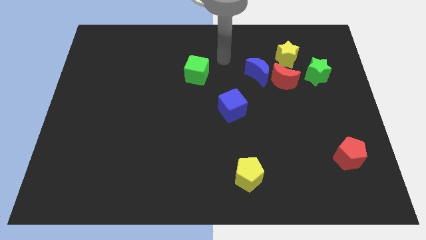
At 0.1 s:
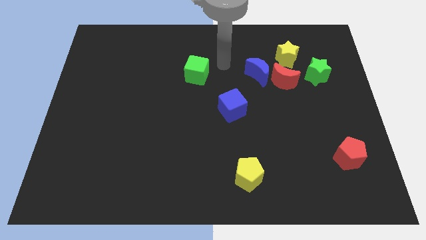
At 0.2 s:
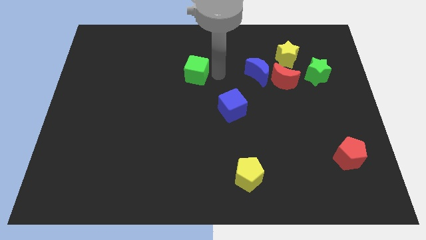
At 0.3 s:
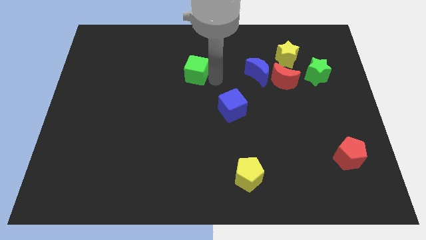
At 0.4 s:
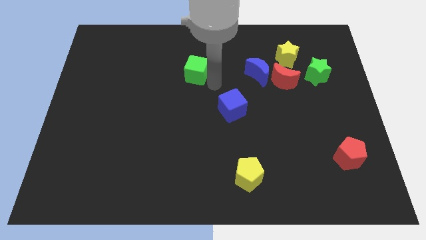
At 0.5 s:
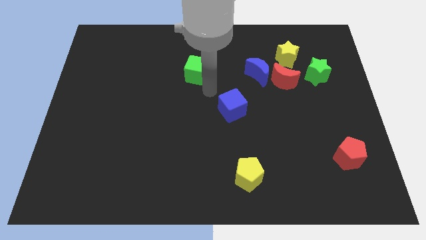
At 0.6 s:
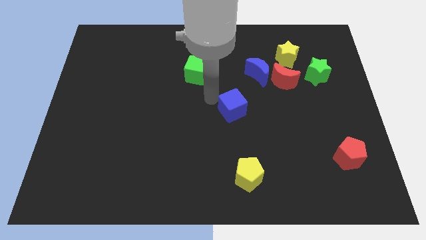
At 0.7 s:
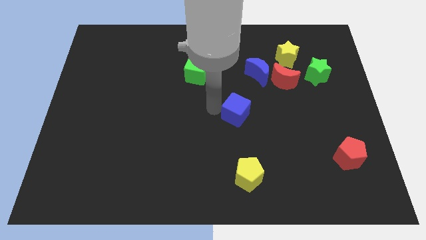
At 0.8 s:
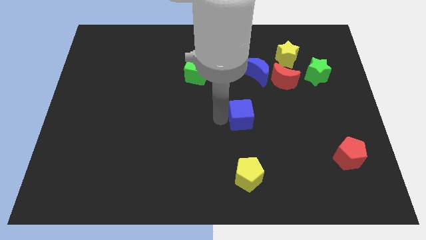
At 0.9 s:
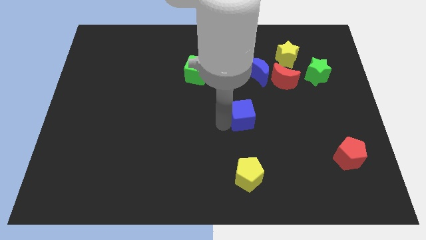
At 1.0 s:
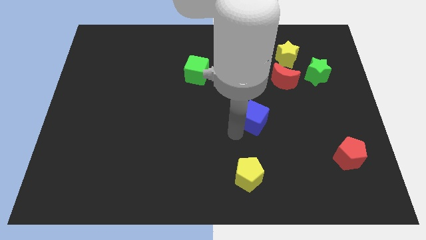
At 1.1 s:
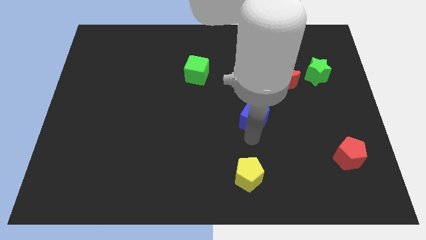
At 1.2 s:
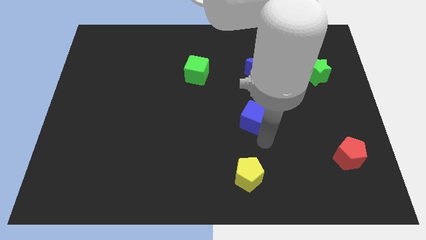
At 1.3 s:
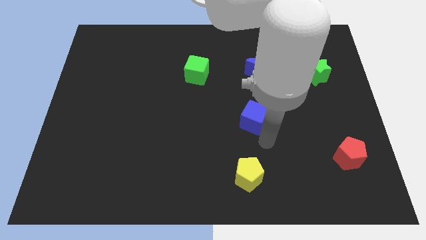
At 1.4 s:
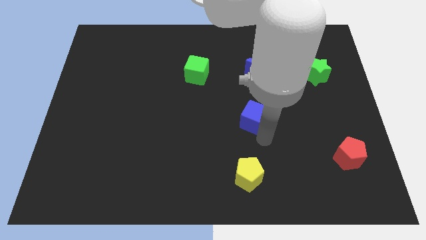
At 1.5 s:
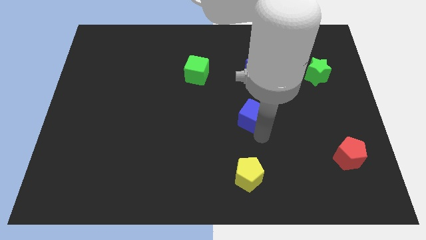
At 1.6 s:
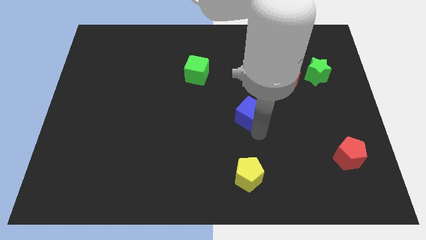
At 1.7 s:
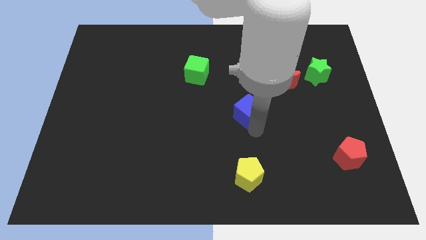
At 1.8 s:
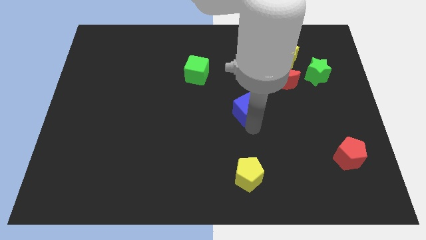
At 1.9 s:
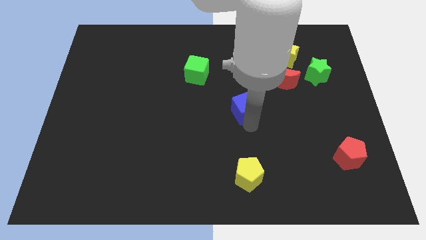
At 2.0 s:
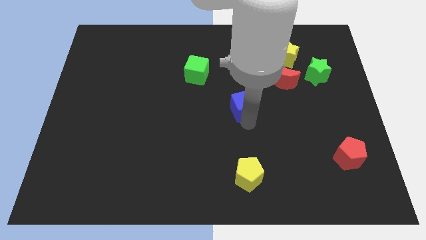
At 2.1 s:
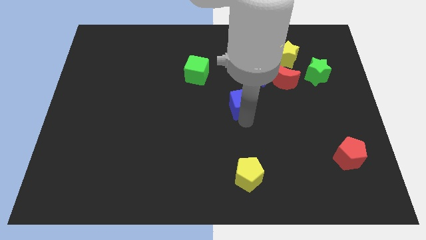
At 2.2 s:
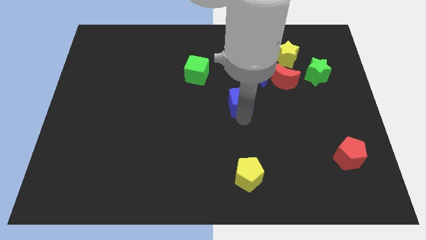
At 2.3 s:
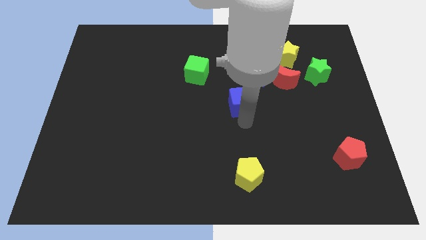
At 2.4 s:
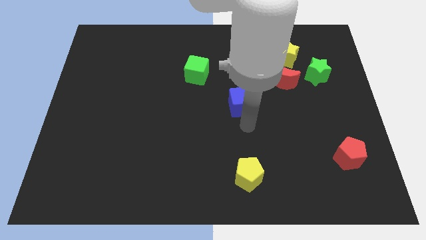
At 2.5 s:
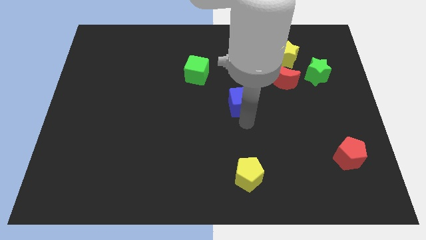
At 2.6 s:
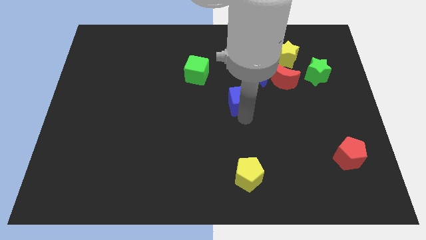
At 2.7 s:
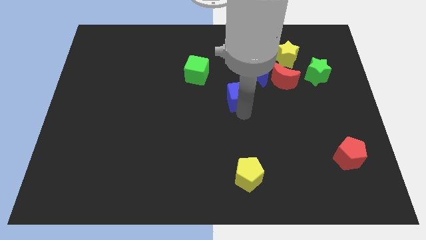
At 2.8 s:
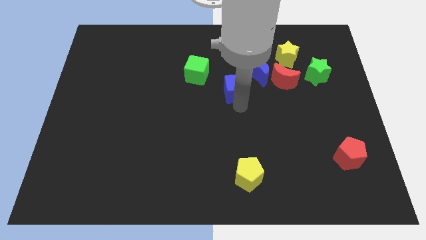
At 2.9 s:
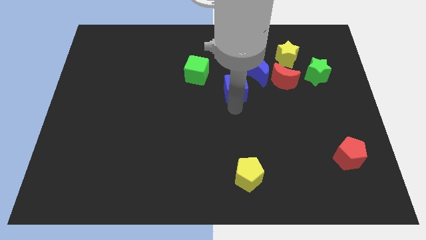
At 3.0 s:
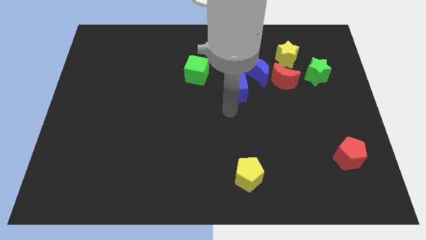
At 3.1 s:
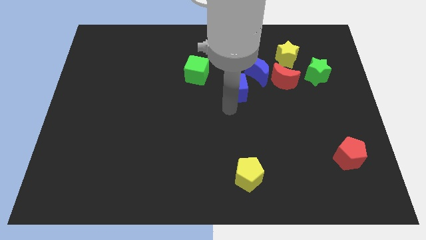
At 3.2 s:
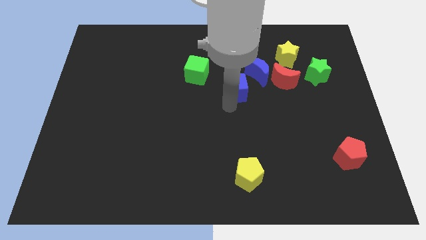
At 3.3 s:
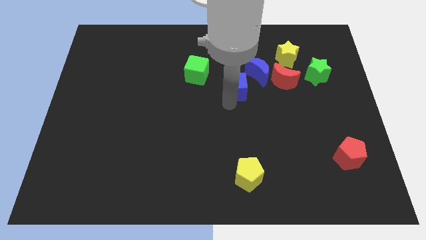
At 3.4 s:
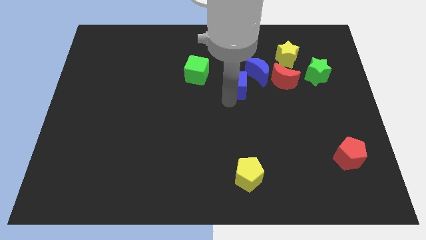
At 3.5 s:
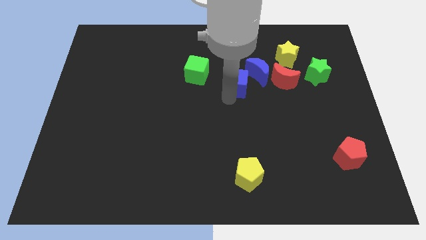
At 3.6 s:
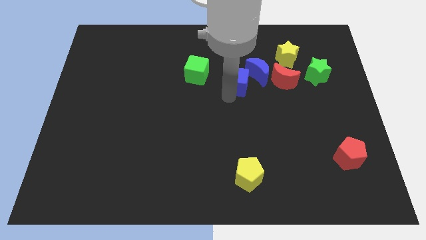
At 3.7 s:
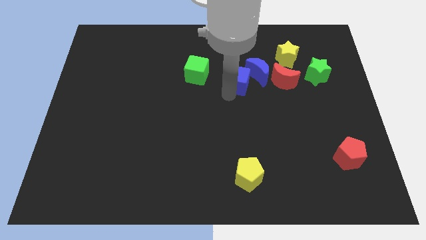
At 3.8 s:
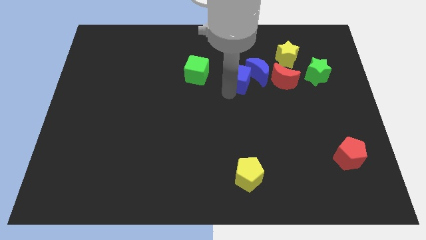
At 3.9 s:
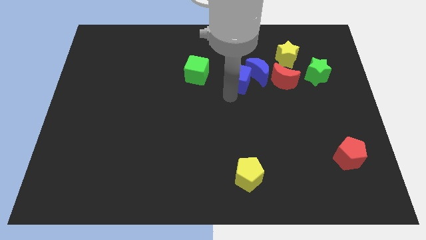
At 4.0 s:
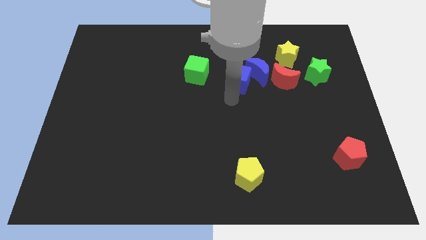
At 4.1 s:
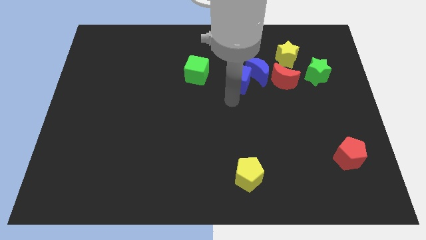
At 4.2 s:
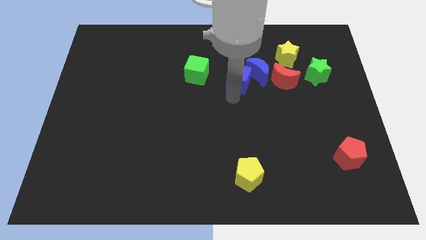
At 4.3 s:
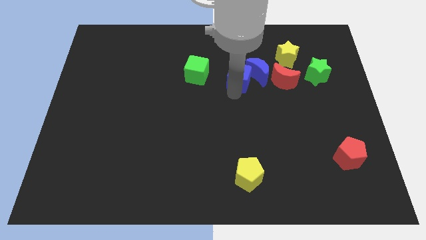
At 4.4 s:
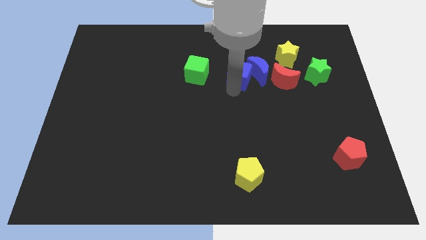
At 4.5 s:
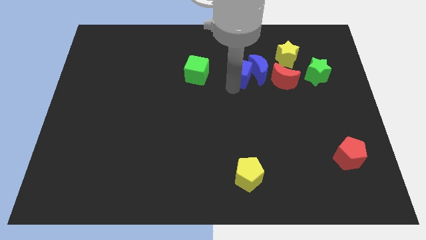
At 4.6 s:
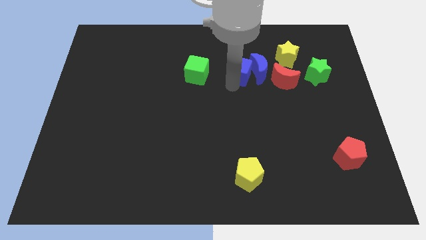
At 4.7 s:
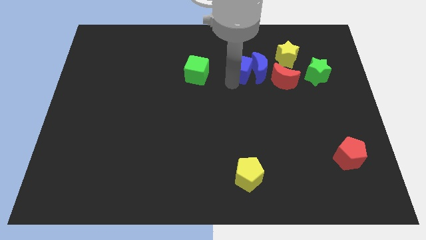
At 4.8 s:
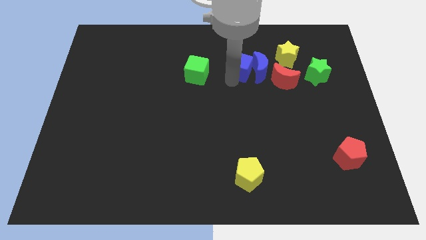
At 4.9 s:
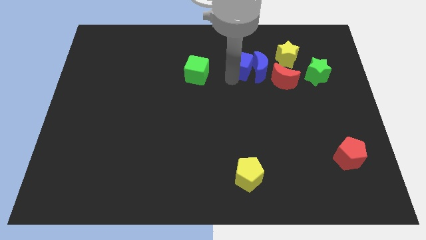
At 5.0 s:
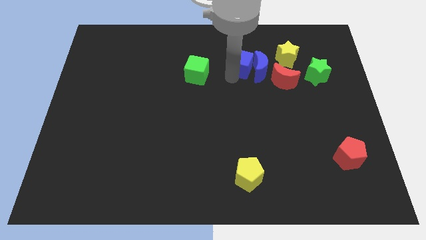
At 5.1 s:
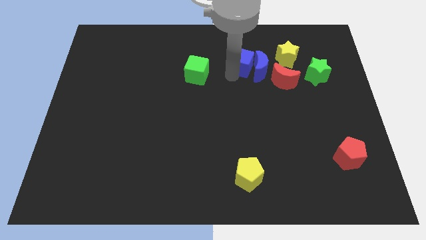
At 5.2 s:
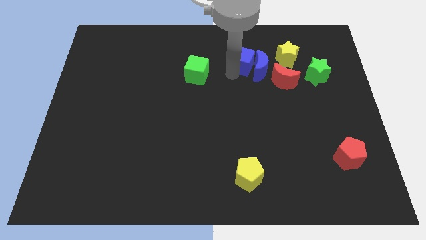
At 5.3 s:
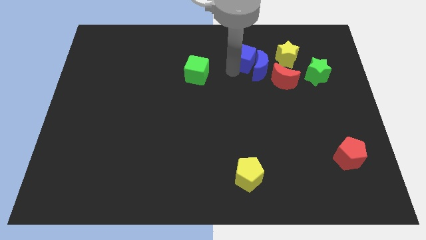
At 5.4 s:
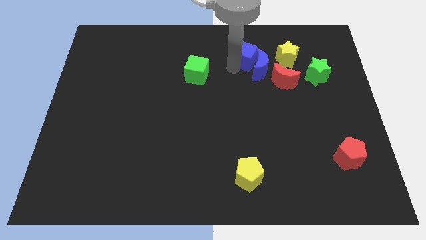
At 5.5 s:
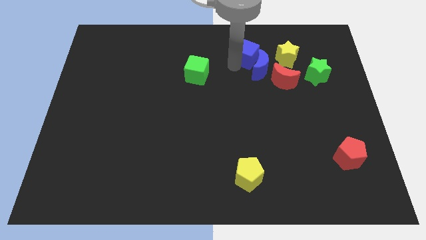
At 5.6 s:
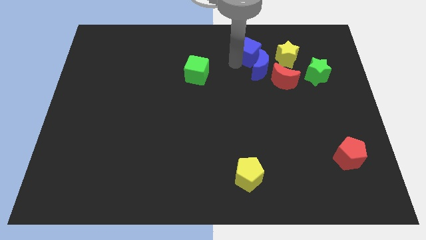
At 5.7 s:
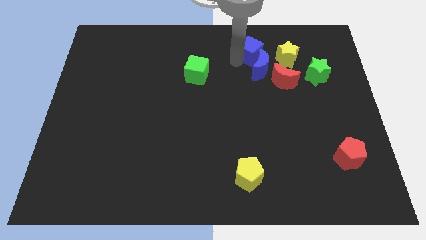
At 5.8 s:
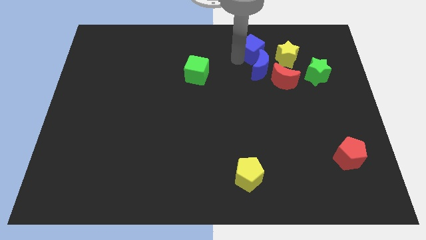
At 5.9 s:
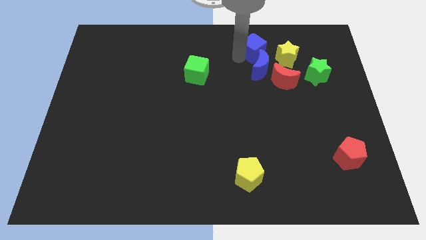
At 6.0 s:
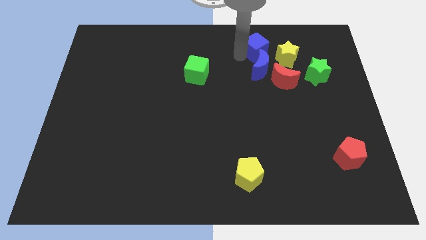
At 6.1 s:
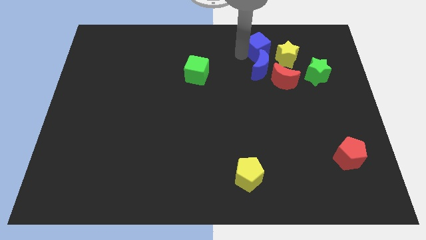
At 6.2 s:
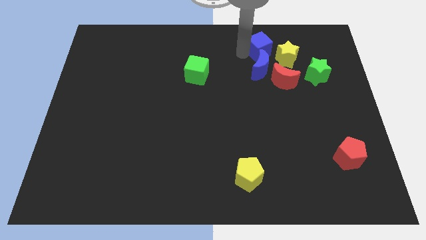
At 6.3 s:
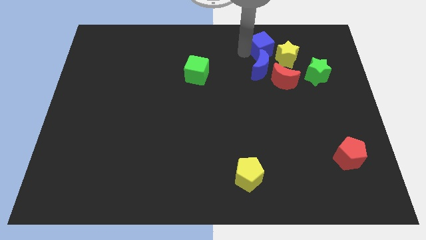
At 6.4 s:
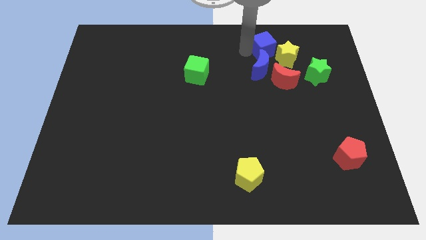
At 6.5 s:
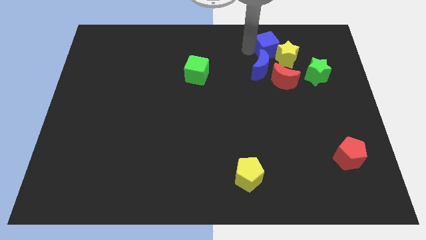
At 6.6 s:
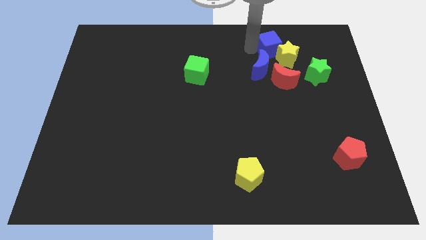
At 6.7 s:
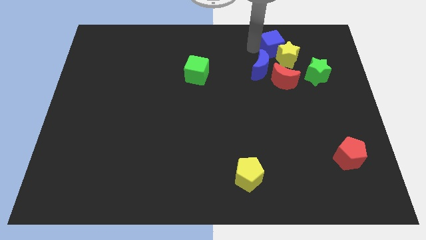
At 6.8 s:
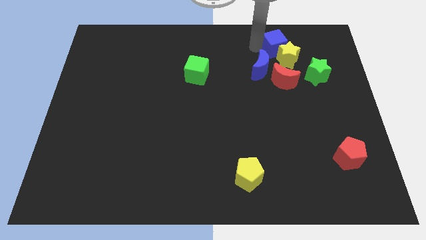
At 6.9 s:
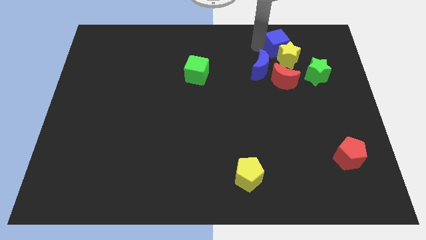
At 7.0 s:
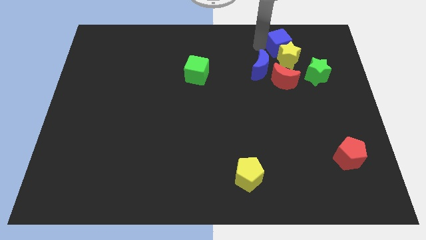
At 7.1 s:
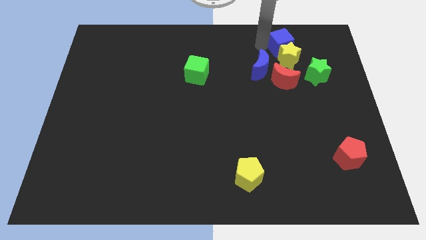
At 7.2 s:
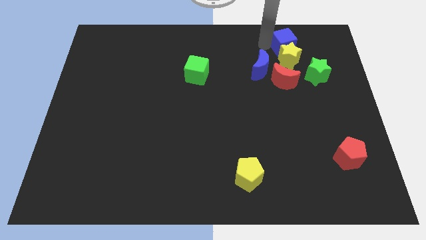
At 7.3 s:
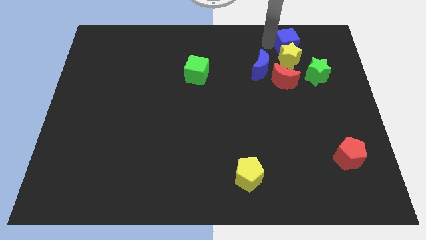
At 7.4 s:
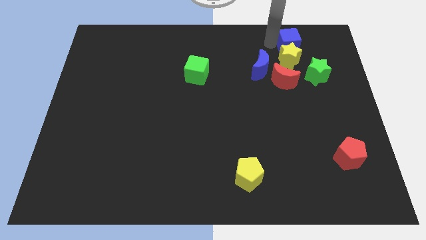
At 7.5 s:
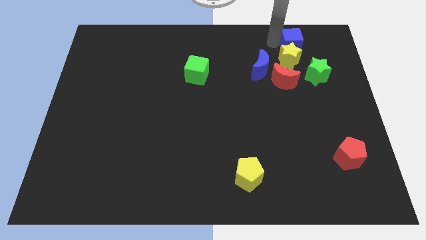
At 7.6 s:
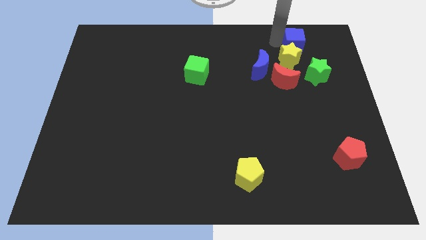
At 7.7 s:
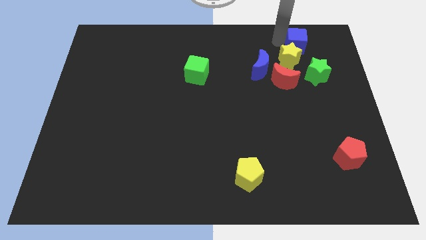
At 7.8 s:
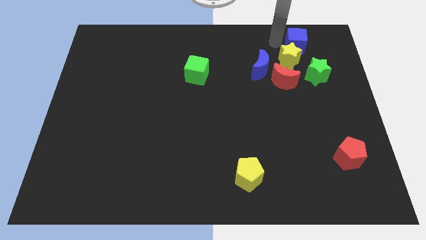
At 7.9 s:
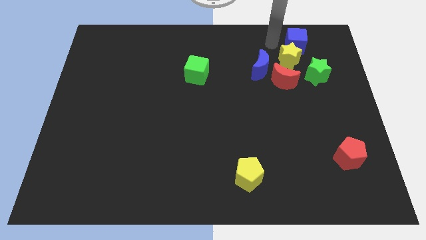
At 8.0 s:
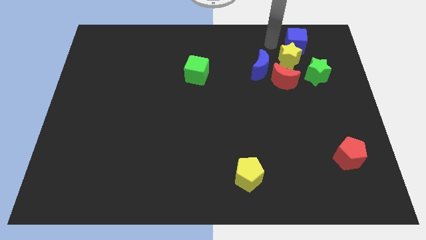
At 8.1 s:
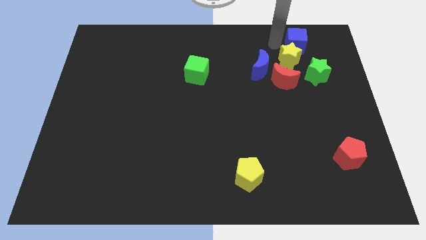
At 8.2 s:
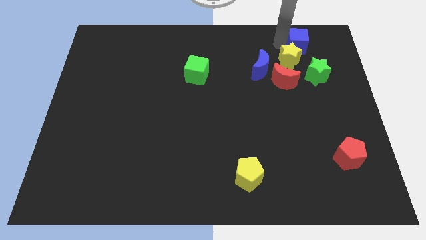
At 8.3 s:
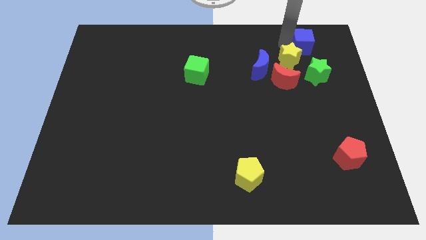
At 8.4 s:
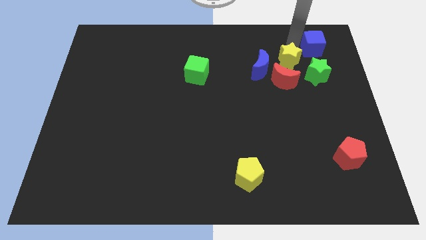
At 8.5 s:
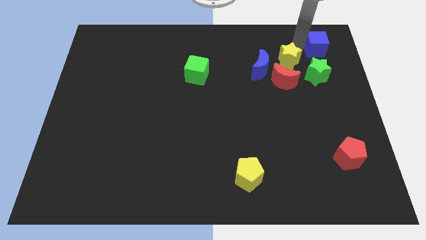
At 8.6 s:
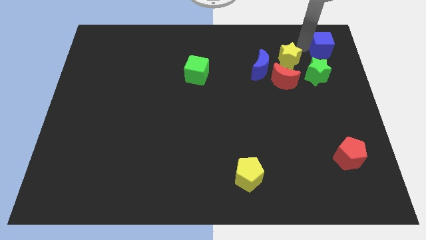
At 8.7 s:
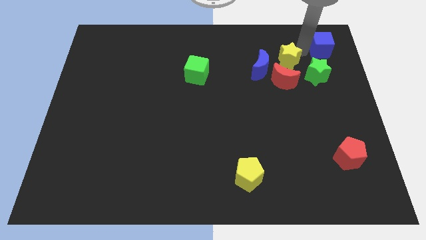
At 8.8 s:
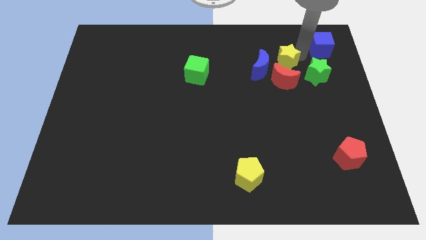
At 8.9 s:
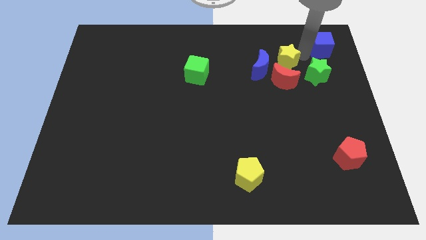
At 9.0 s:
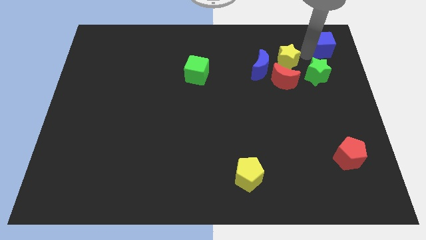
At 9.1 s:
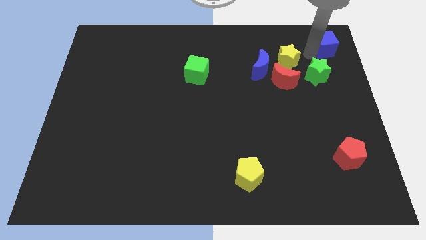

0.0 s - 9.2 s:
move the blue cube to the top right of the board
